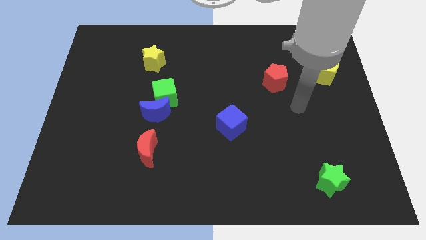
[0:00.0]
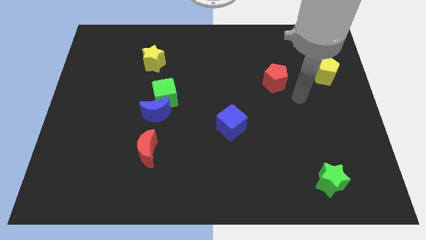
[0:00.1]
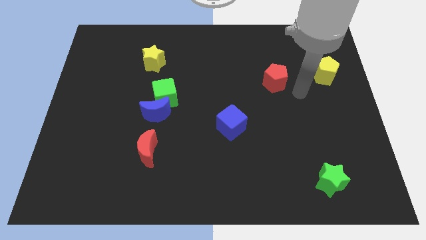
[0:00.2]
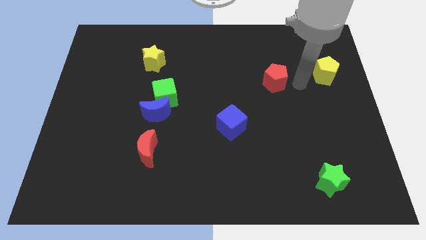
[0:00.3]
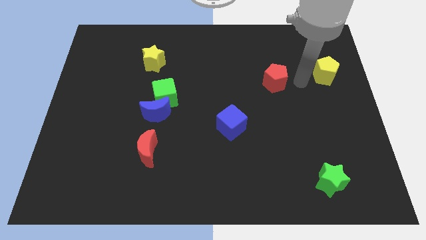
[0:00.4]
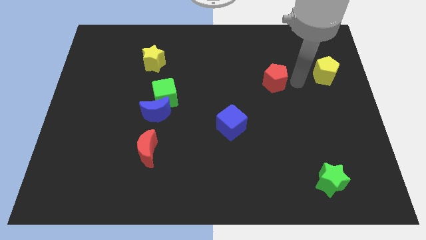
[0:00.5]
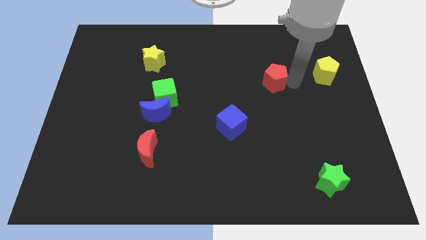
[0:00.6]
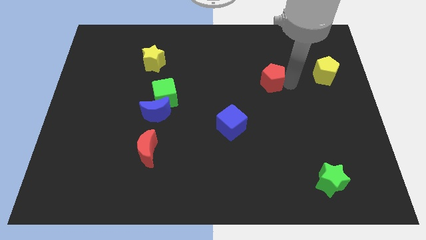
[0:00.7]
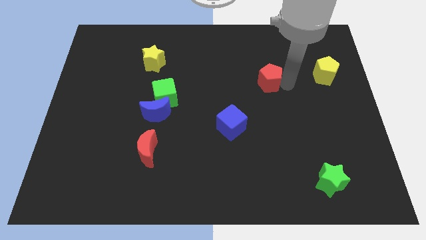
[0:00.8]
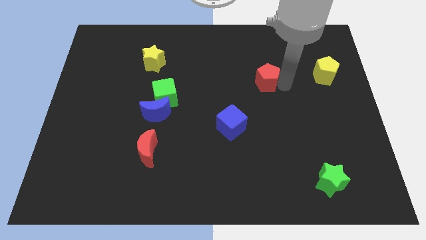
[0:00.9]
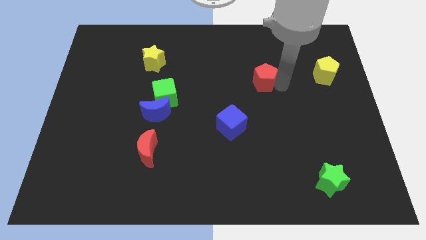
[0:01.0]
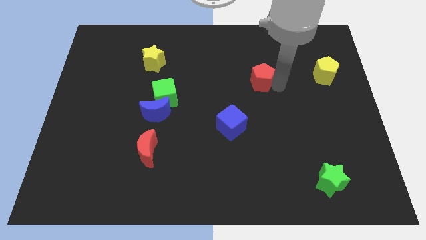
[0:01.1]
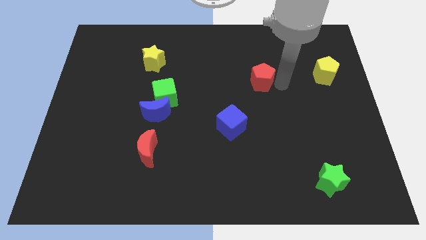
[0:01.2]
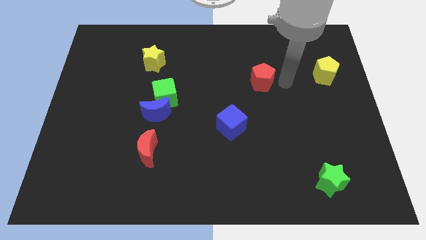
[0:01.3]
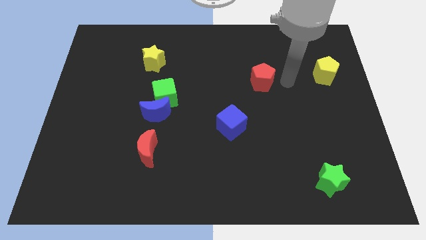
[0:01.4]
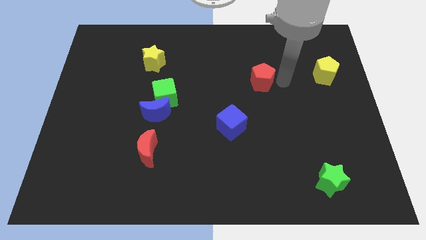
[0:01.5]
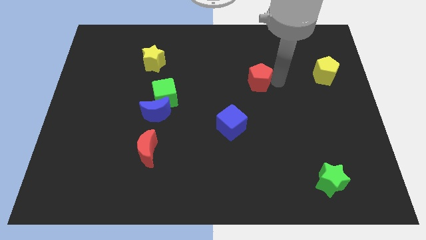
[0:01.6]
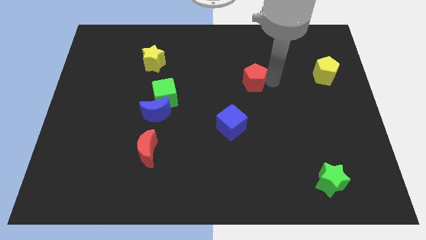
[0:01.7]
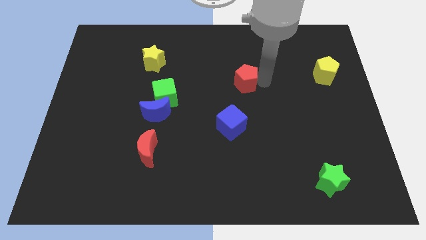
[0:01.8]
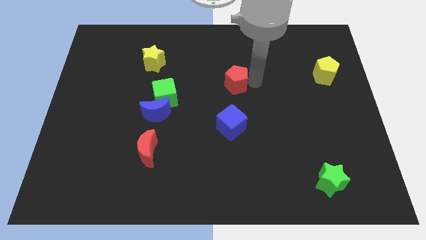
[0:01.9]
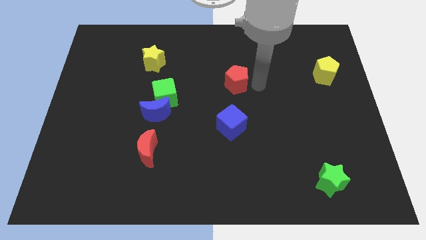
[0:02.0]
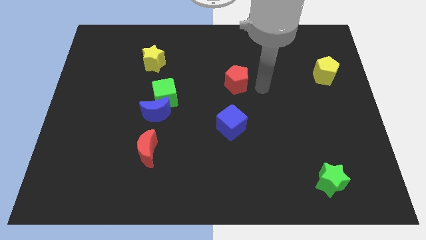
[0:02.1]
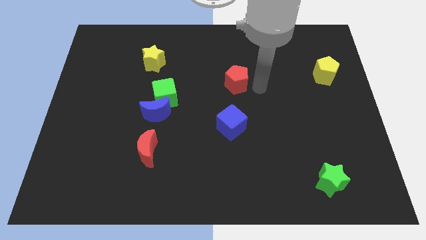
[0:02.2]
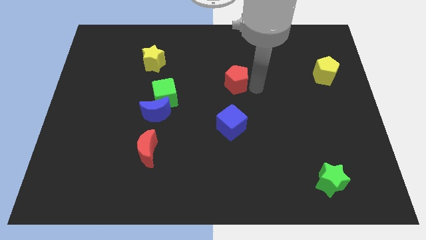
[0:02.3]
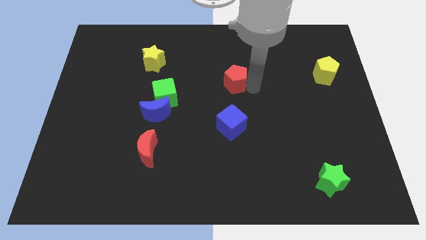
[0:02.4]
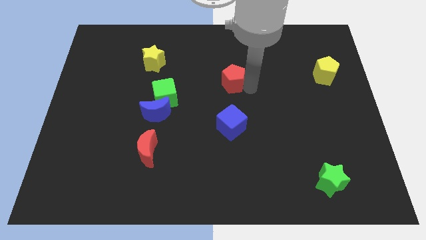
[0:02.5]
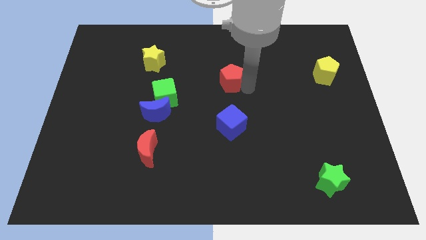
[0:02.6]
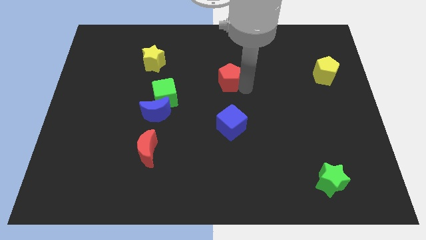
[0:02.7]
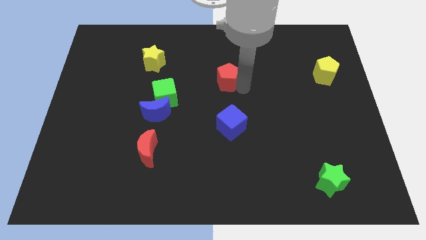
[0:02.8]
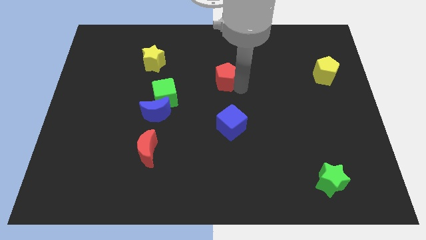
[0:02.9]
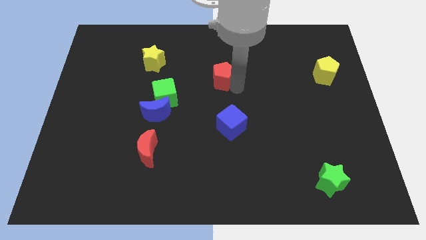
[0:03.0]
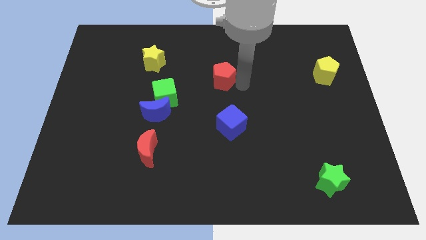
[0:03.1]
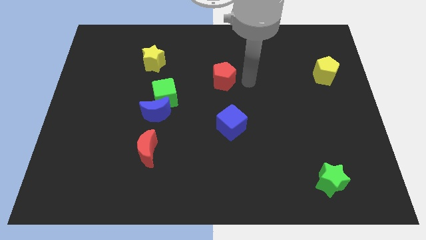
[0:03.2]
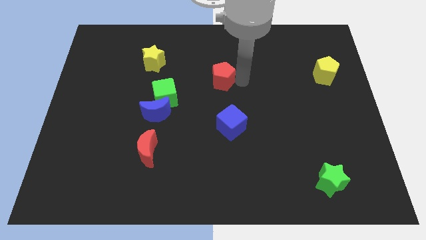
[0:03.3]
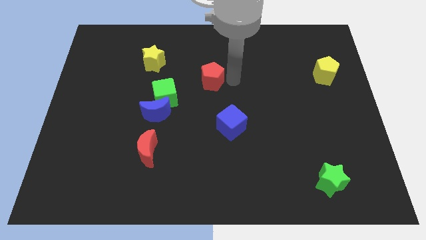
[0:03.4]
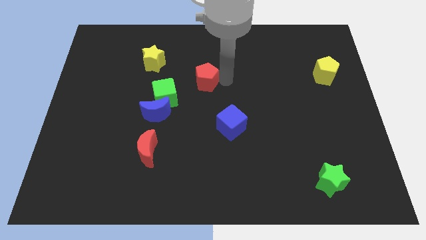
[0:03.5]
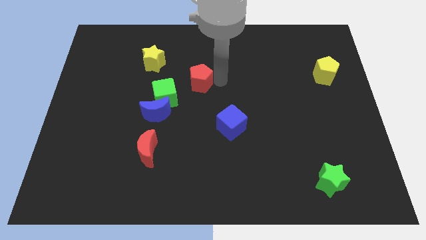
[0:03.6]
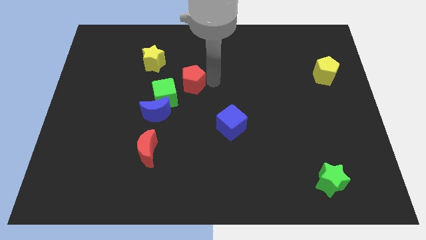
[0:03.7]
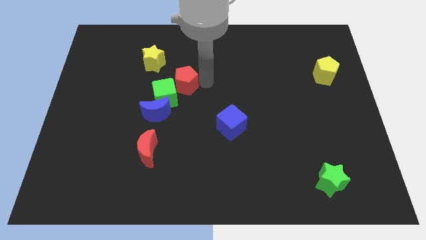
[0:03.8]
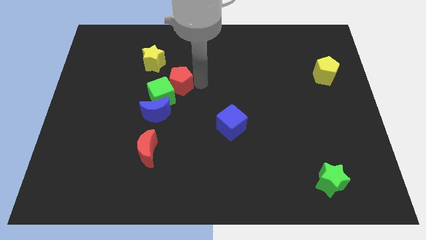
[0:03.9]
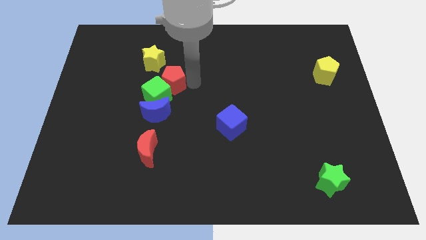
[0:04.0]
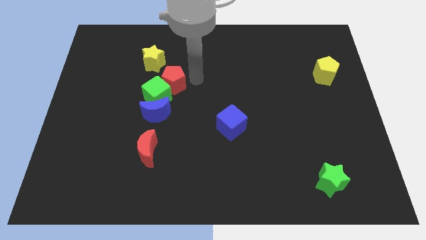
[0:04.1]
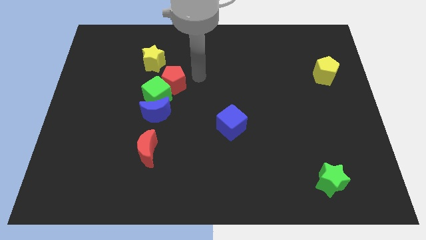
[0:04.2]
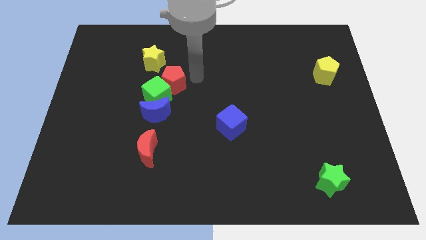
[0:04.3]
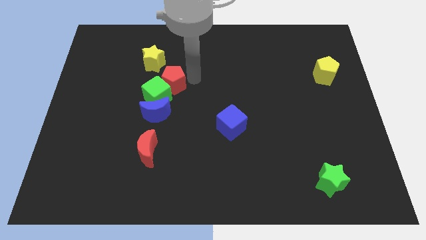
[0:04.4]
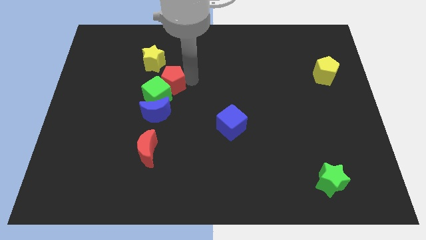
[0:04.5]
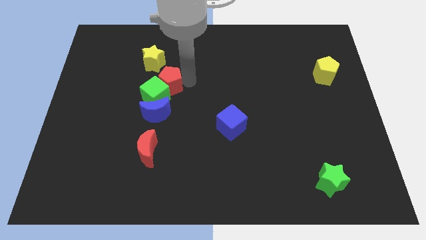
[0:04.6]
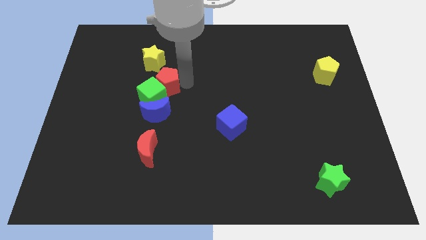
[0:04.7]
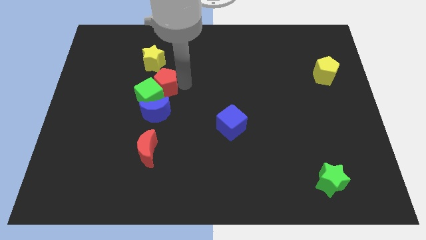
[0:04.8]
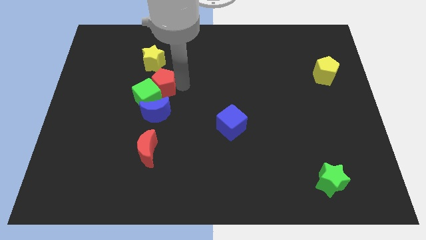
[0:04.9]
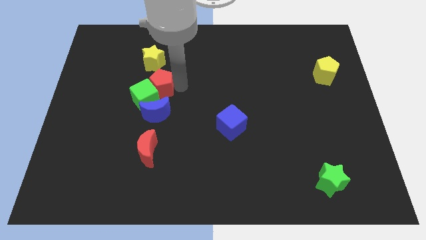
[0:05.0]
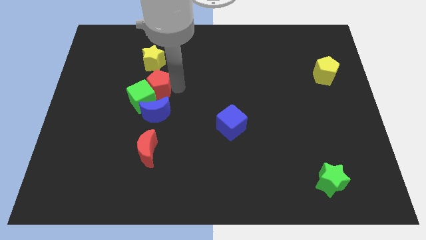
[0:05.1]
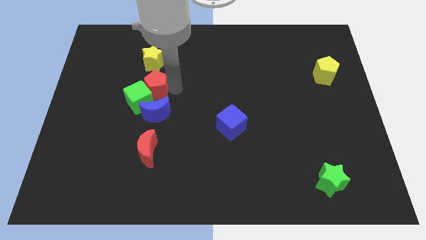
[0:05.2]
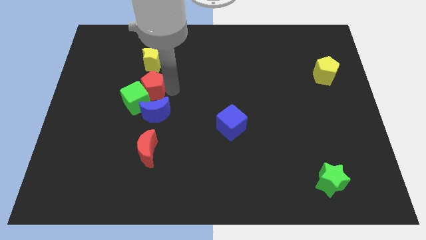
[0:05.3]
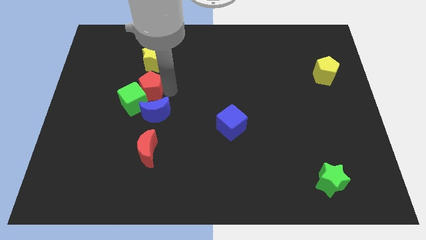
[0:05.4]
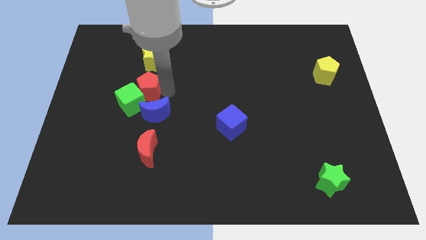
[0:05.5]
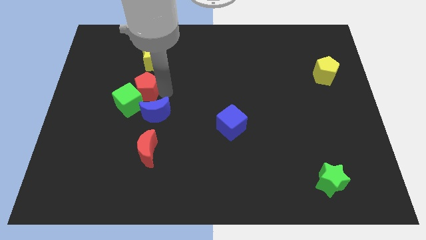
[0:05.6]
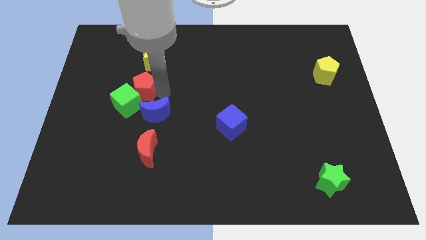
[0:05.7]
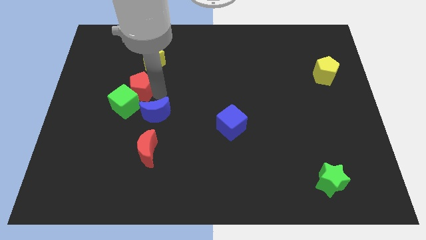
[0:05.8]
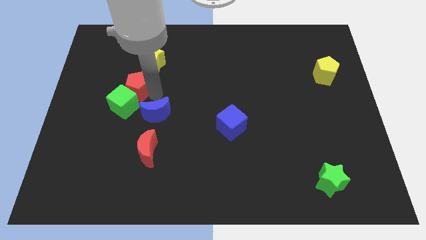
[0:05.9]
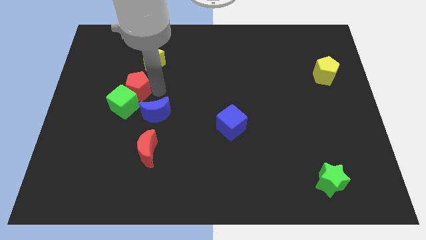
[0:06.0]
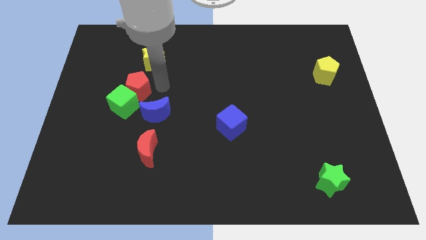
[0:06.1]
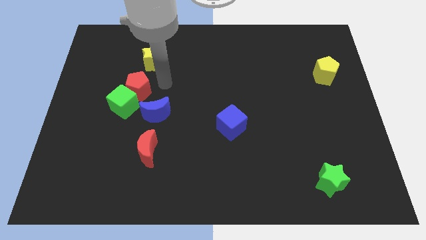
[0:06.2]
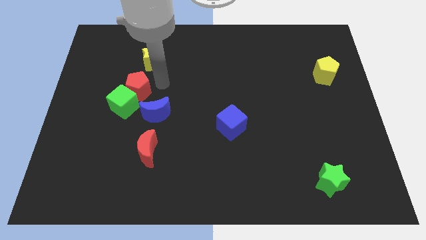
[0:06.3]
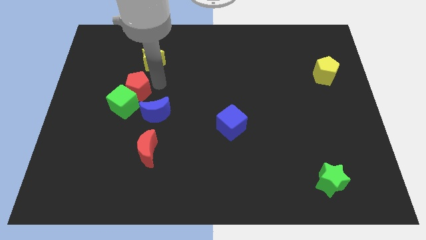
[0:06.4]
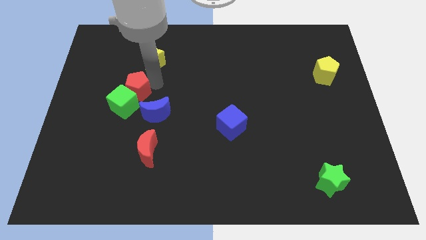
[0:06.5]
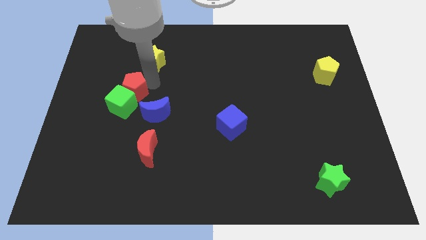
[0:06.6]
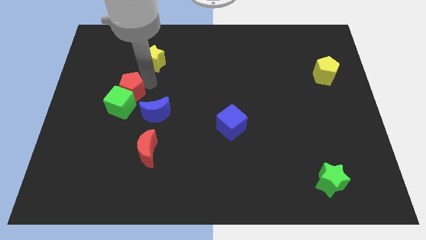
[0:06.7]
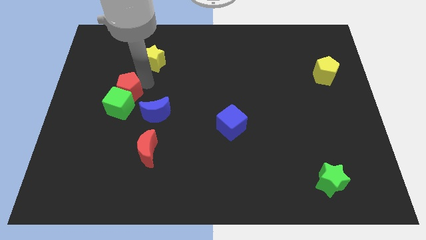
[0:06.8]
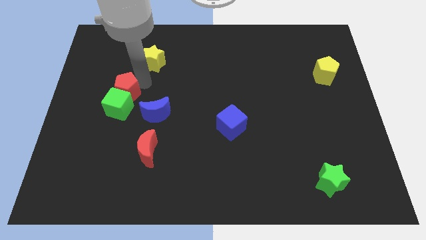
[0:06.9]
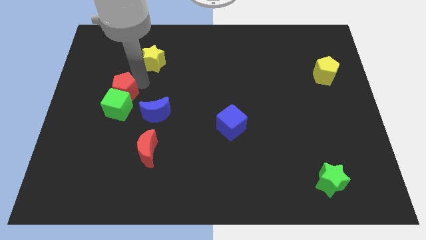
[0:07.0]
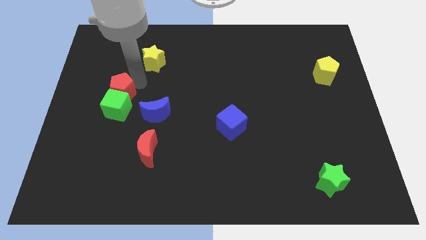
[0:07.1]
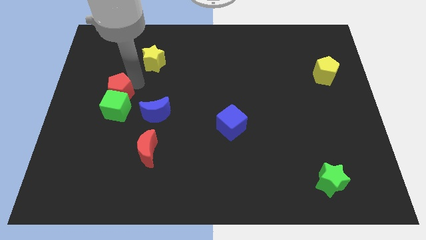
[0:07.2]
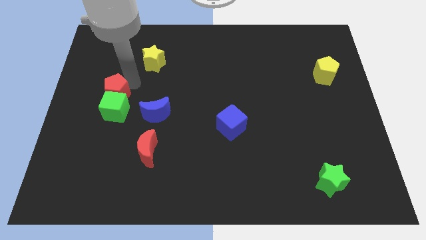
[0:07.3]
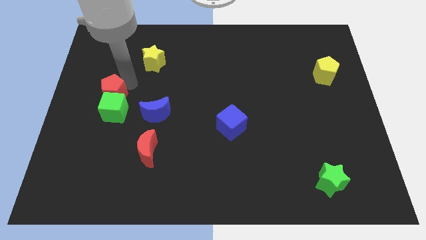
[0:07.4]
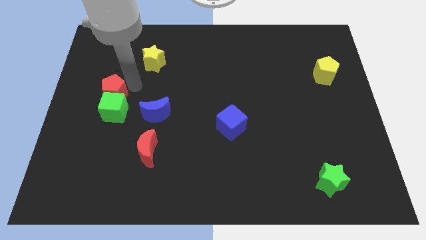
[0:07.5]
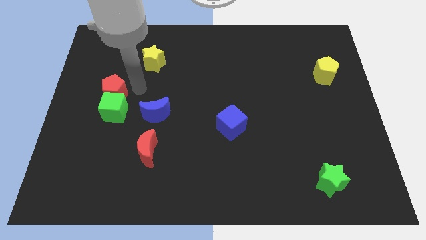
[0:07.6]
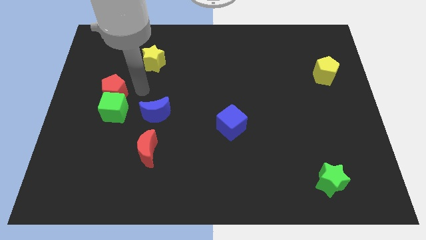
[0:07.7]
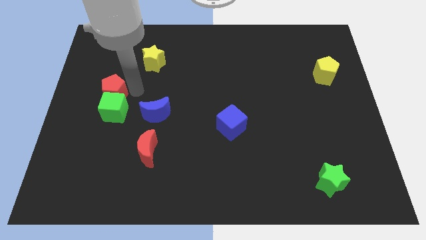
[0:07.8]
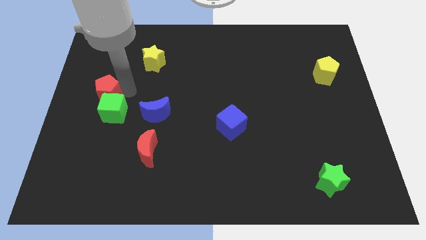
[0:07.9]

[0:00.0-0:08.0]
slide the red pentagon to the left side
